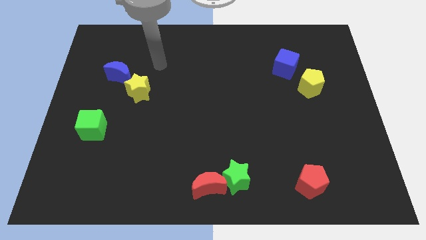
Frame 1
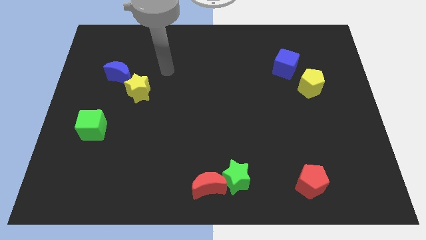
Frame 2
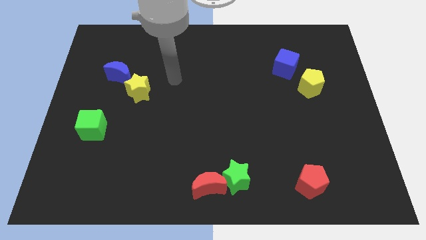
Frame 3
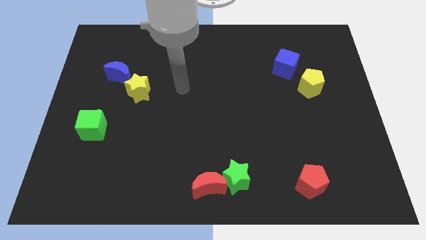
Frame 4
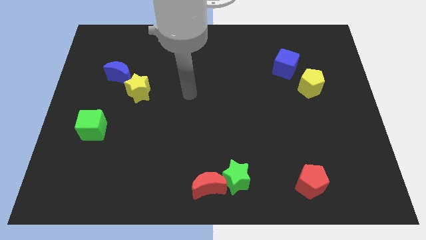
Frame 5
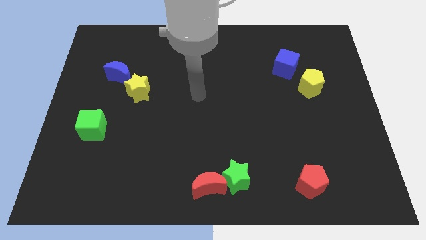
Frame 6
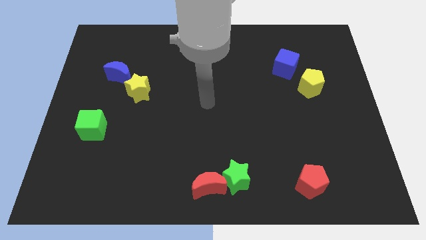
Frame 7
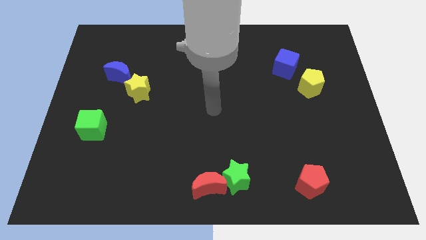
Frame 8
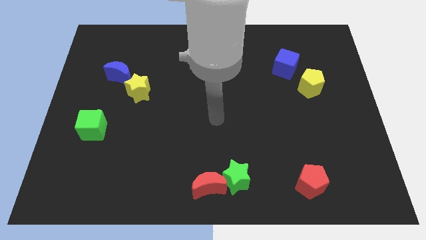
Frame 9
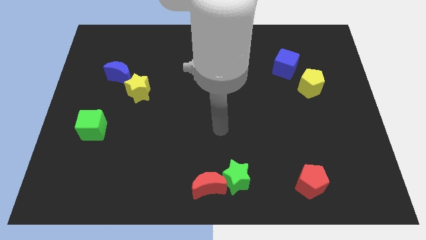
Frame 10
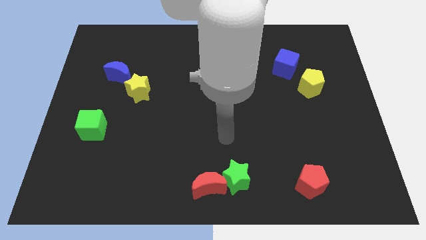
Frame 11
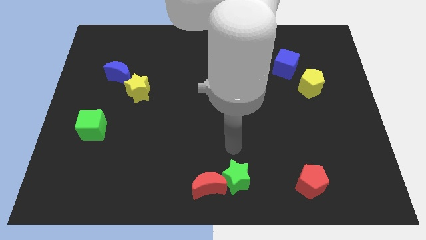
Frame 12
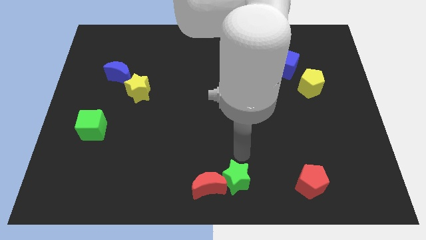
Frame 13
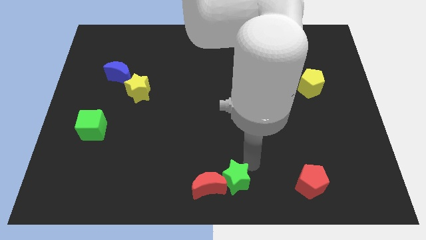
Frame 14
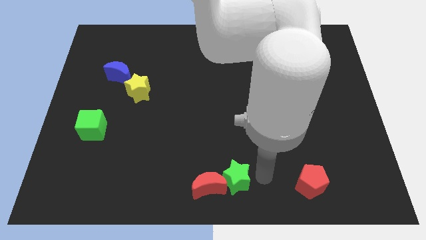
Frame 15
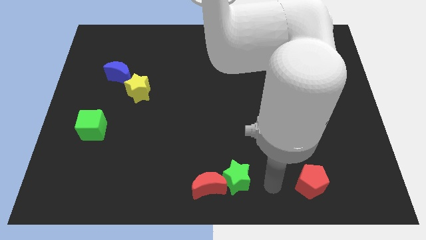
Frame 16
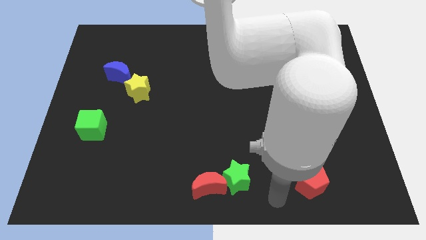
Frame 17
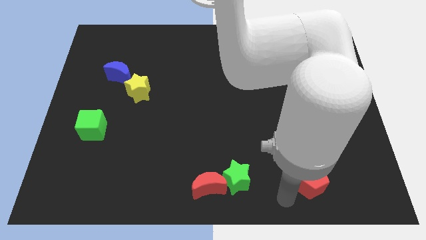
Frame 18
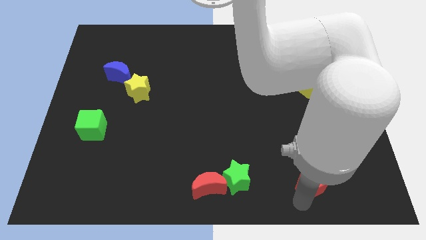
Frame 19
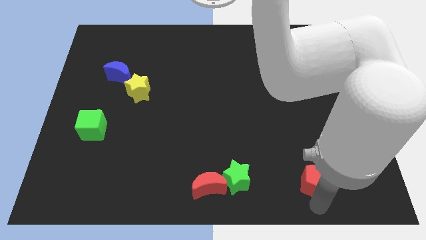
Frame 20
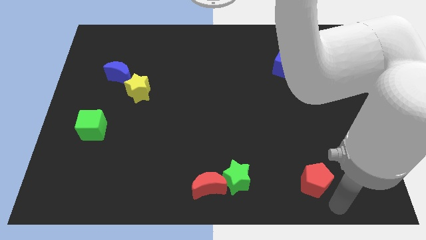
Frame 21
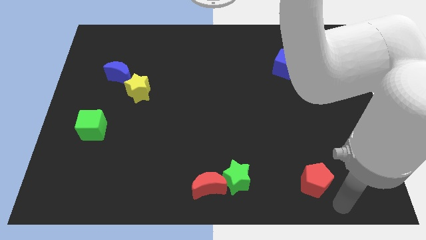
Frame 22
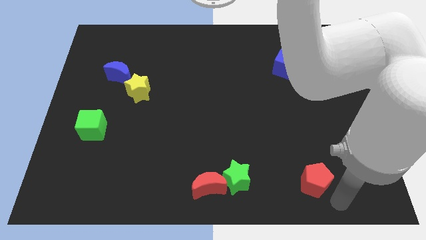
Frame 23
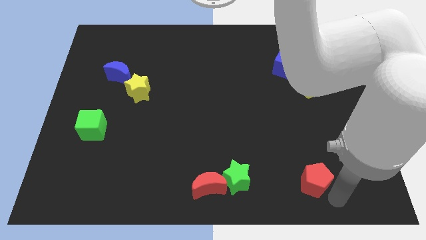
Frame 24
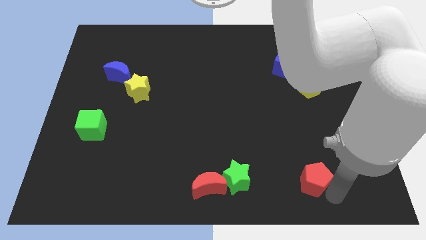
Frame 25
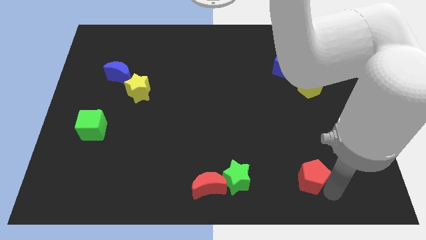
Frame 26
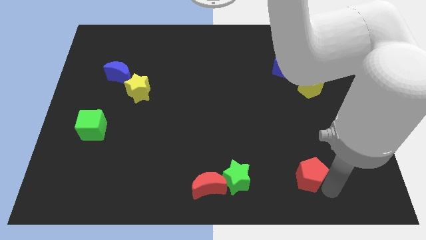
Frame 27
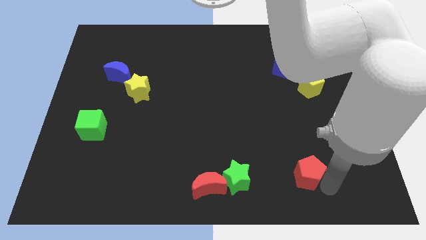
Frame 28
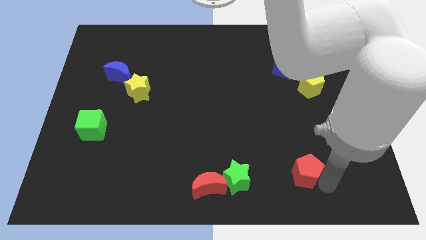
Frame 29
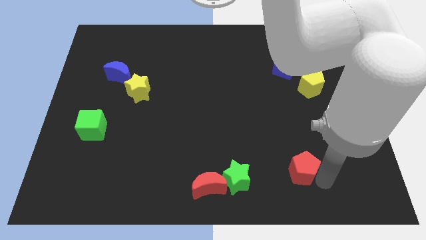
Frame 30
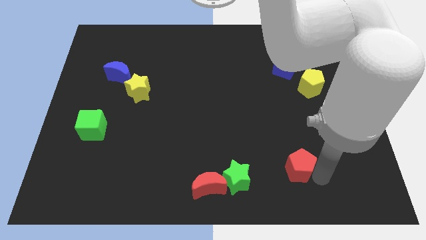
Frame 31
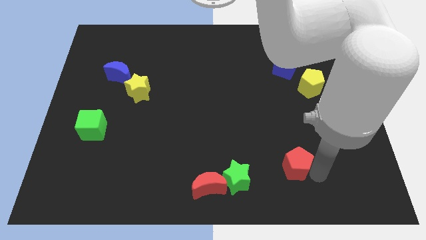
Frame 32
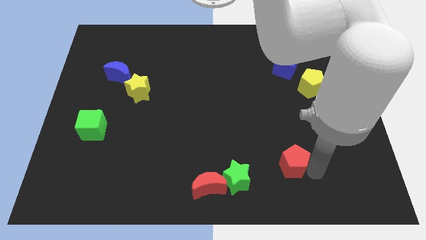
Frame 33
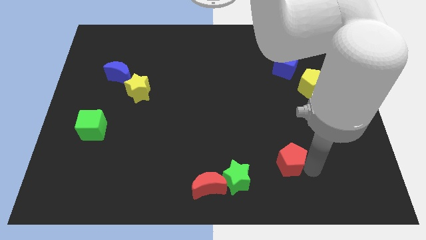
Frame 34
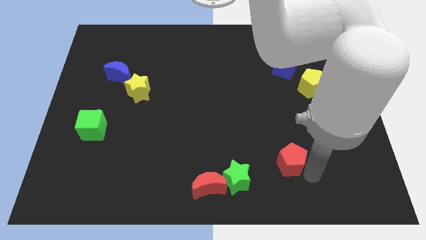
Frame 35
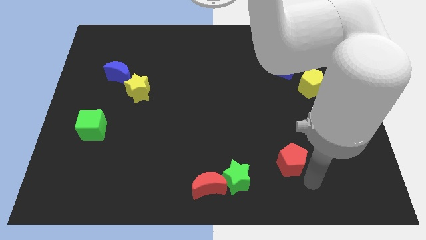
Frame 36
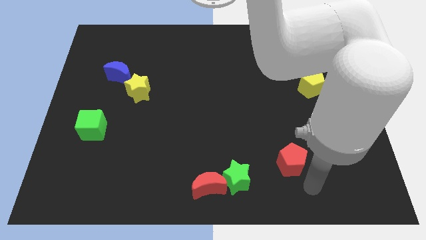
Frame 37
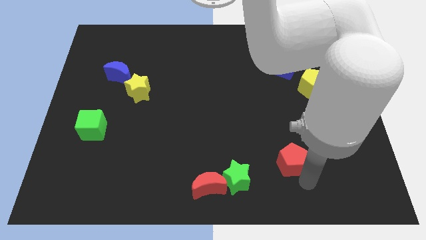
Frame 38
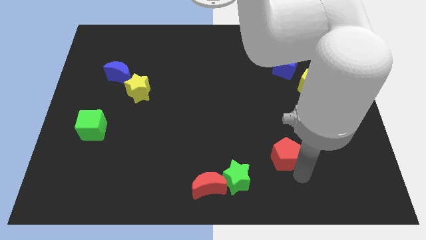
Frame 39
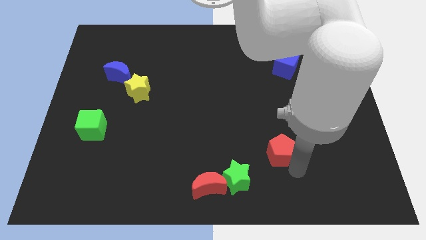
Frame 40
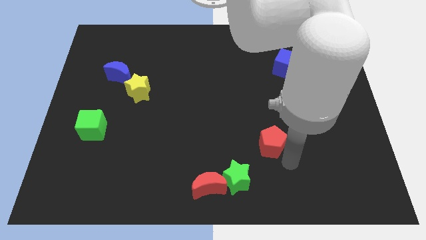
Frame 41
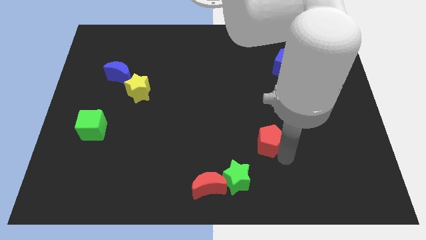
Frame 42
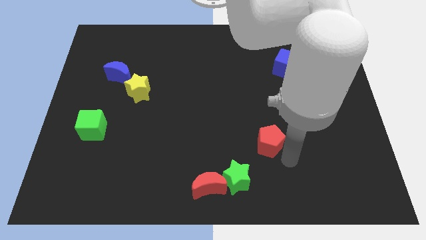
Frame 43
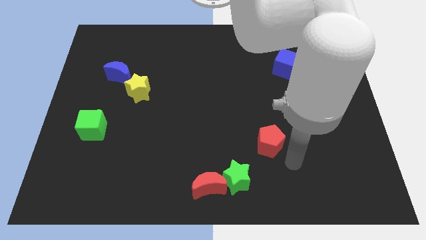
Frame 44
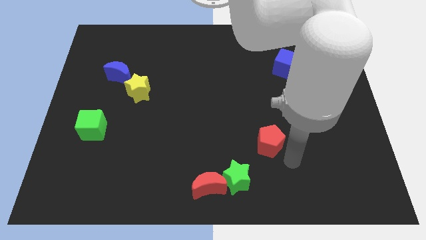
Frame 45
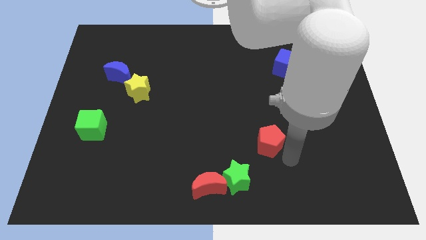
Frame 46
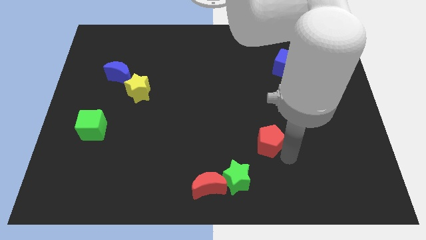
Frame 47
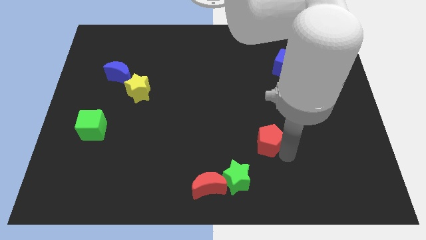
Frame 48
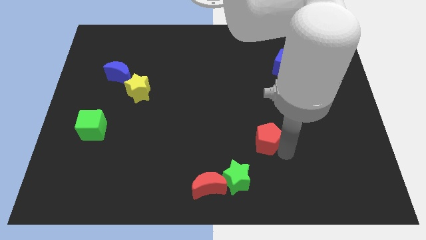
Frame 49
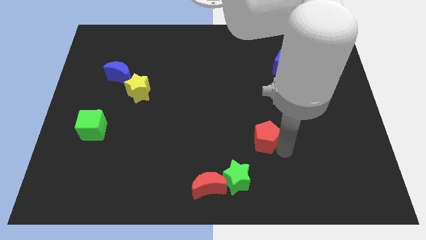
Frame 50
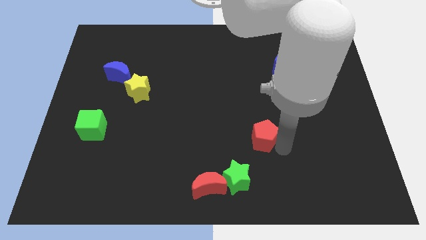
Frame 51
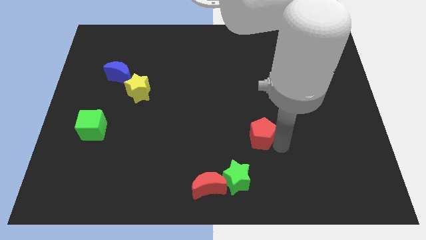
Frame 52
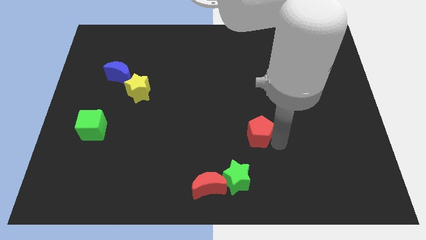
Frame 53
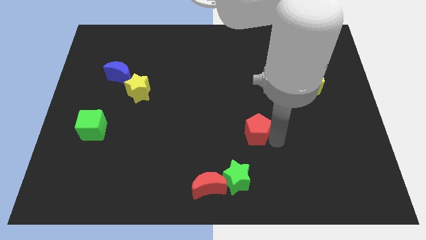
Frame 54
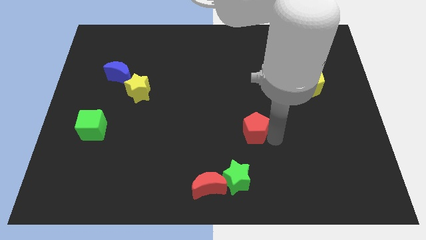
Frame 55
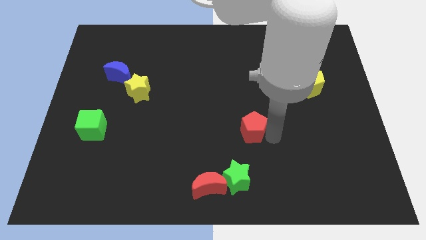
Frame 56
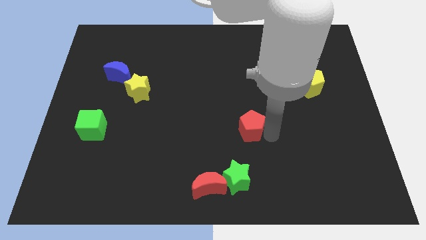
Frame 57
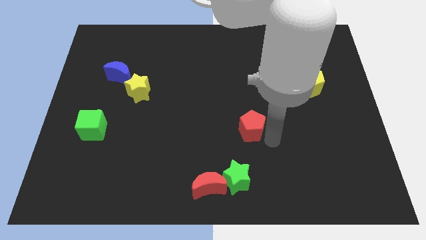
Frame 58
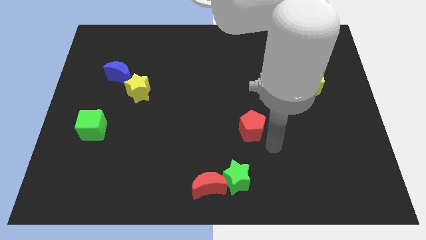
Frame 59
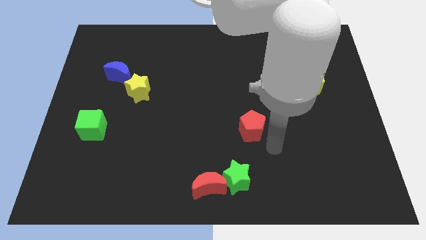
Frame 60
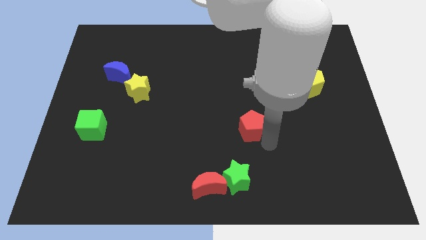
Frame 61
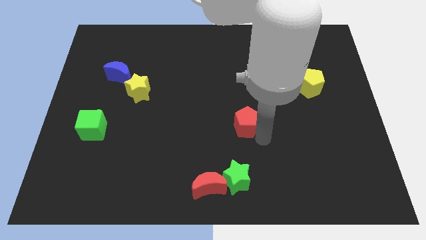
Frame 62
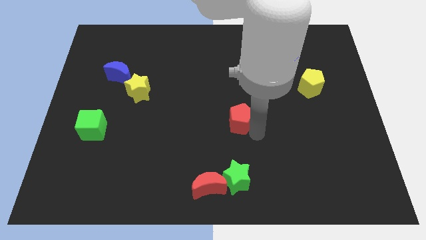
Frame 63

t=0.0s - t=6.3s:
push the red pentagon up and then to the left

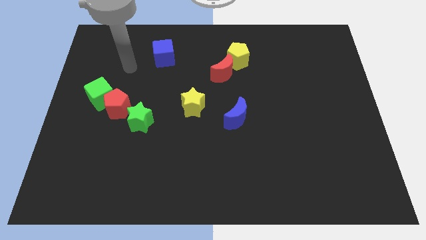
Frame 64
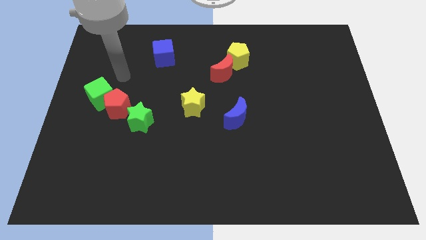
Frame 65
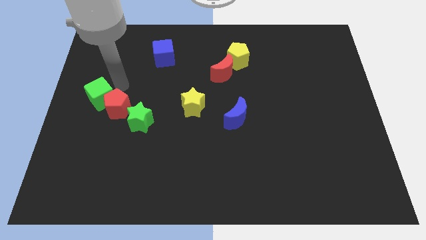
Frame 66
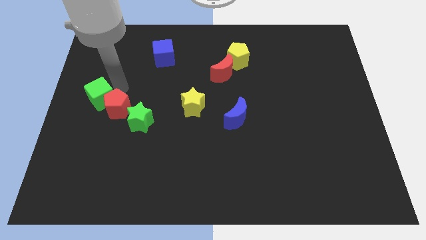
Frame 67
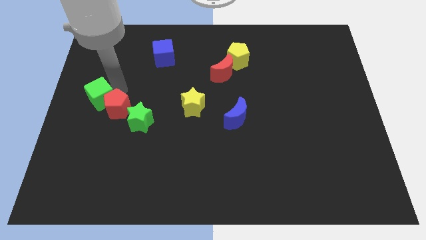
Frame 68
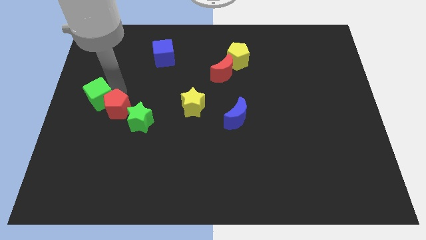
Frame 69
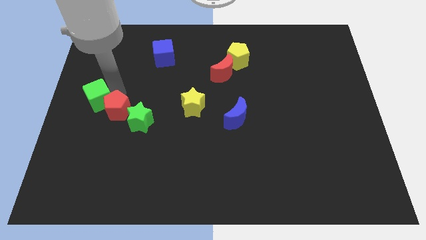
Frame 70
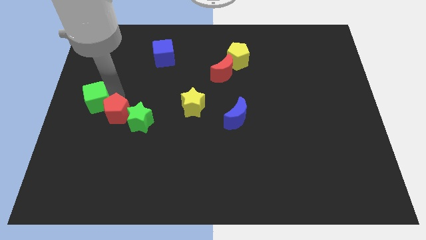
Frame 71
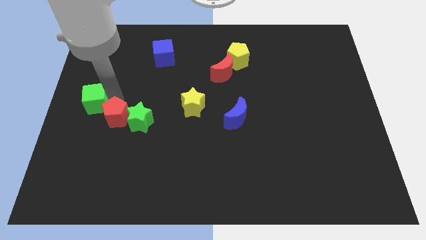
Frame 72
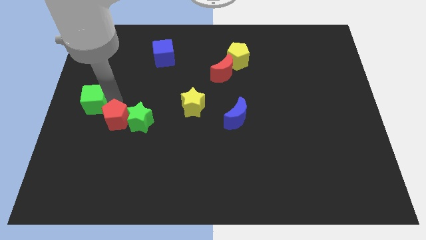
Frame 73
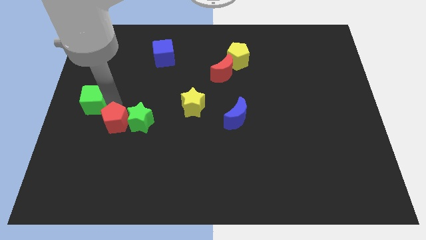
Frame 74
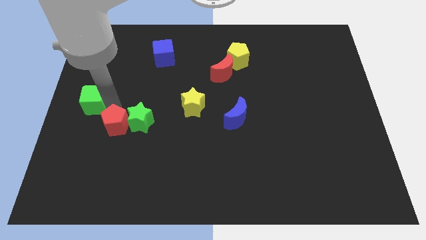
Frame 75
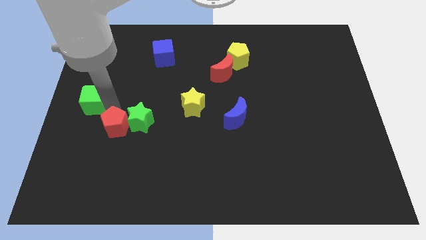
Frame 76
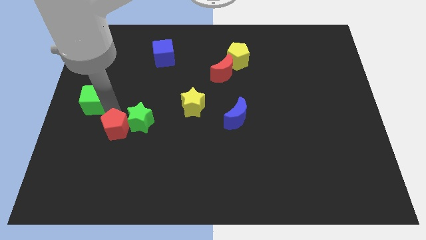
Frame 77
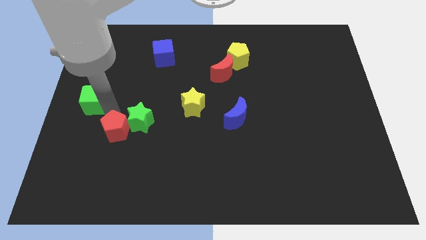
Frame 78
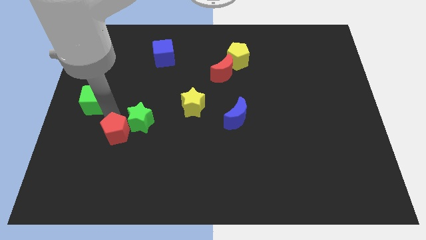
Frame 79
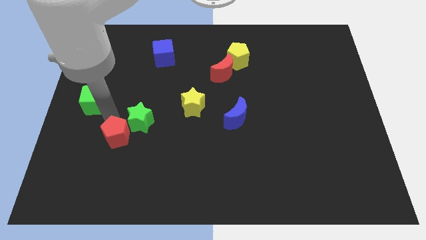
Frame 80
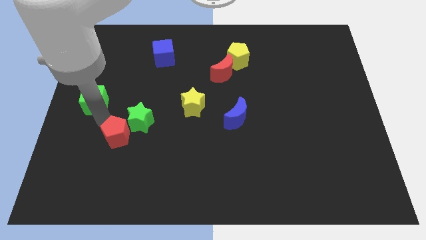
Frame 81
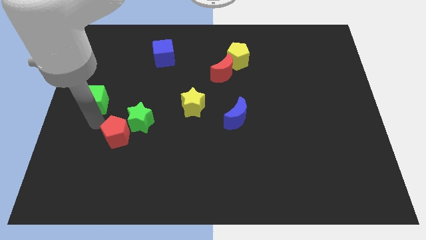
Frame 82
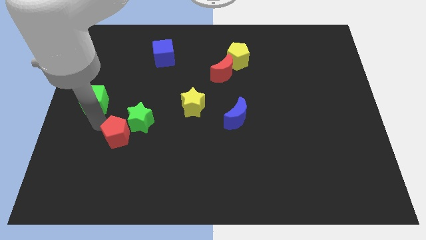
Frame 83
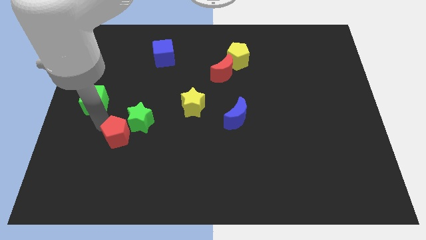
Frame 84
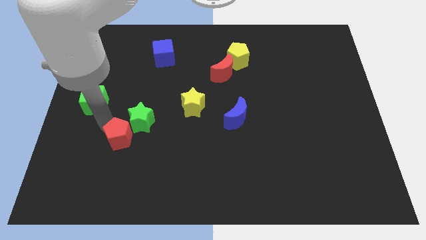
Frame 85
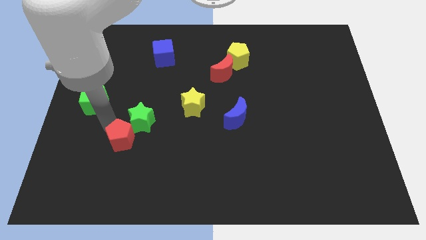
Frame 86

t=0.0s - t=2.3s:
move the red pentagon down and to the right diagonally a little bit
